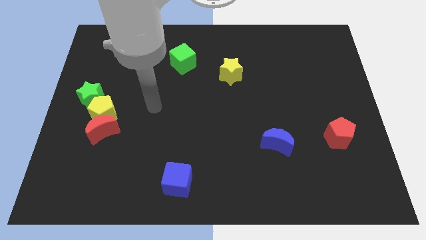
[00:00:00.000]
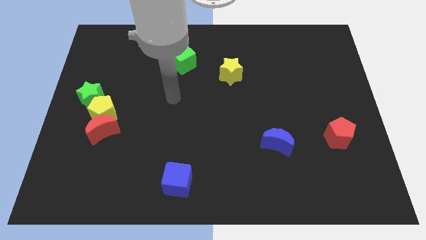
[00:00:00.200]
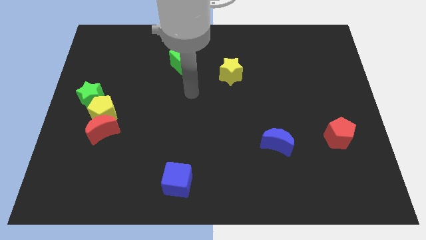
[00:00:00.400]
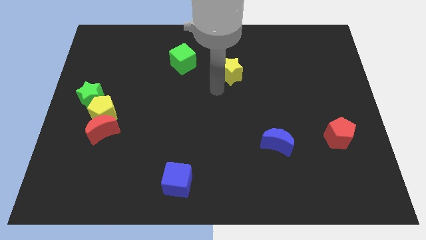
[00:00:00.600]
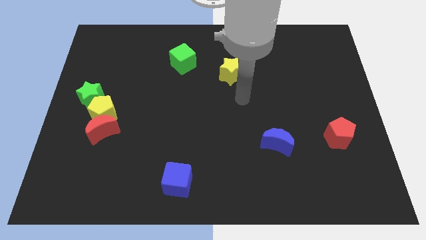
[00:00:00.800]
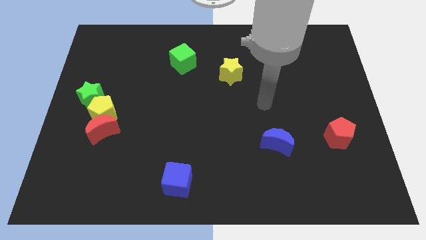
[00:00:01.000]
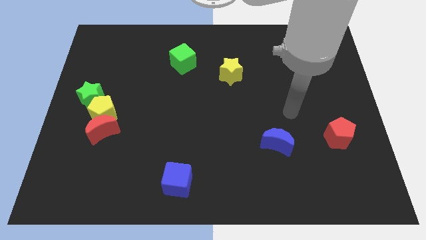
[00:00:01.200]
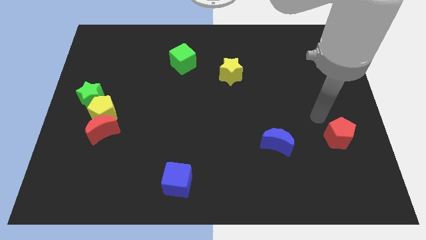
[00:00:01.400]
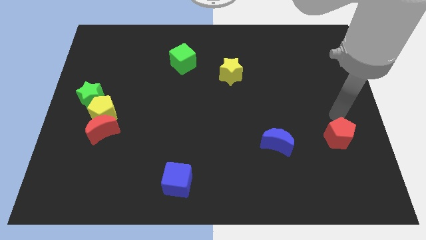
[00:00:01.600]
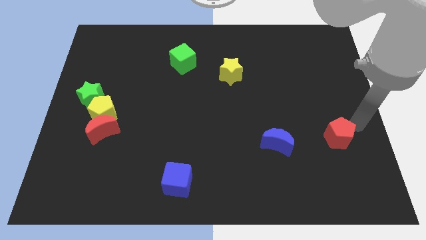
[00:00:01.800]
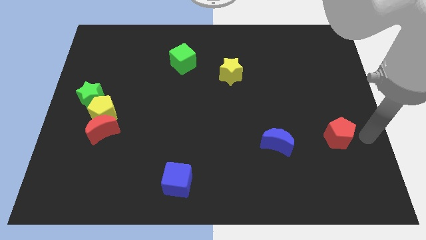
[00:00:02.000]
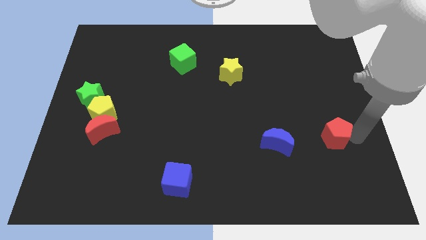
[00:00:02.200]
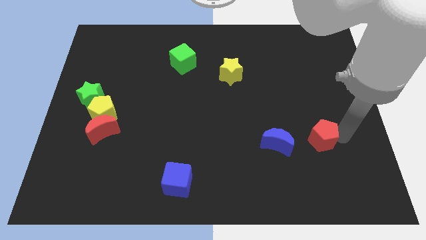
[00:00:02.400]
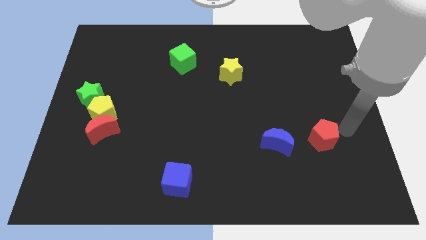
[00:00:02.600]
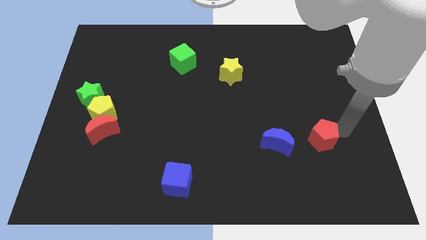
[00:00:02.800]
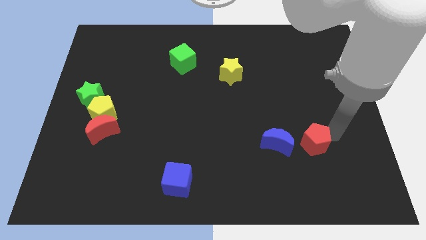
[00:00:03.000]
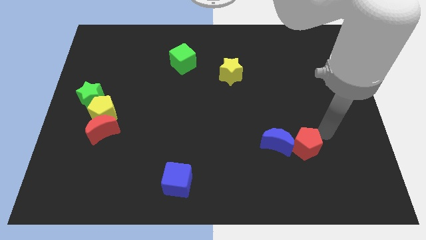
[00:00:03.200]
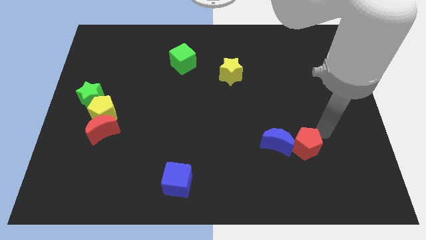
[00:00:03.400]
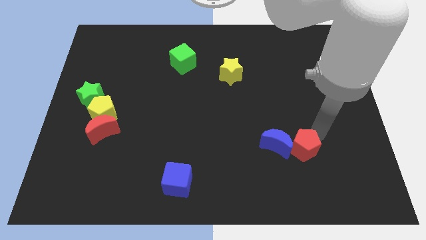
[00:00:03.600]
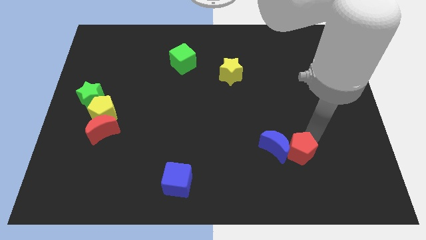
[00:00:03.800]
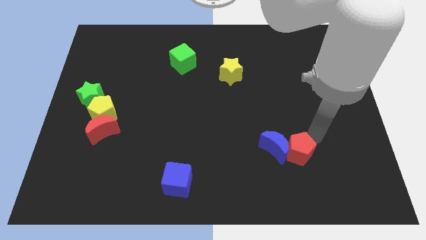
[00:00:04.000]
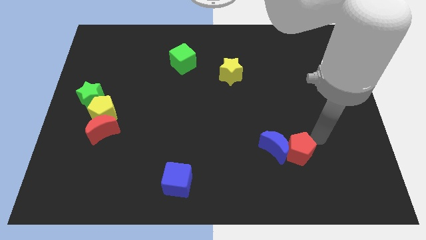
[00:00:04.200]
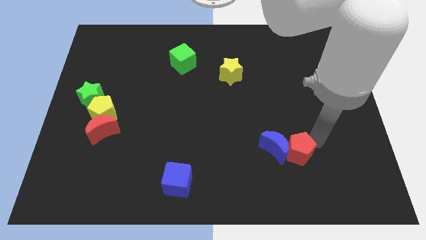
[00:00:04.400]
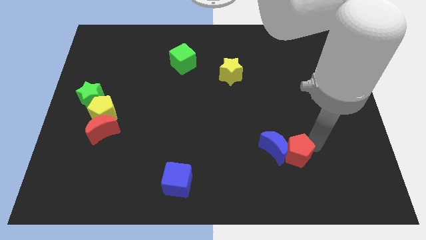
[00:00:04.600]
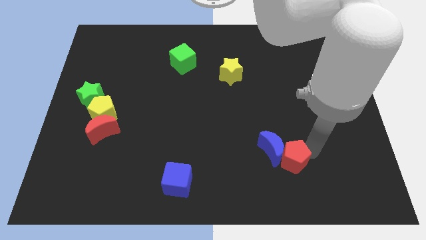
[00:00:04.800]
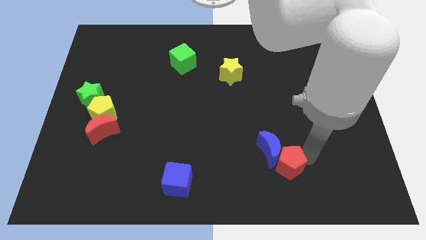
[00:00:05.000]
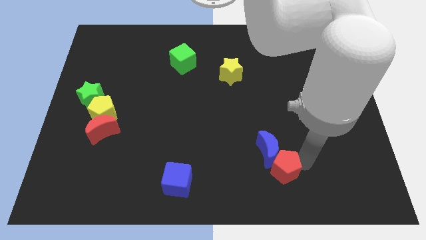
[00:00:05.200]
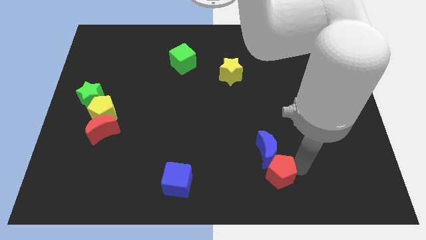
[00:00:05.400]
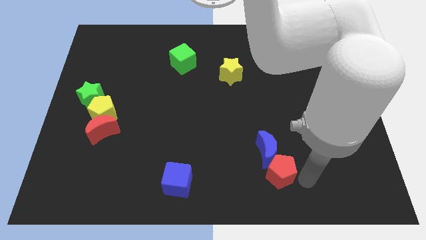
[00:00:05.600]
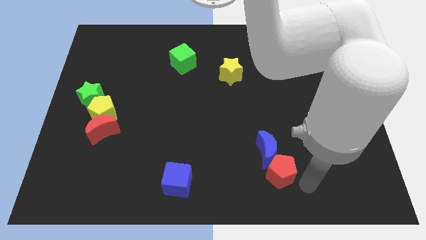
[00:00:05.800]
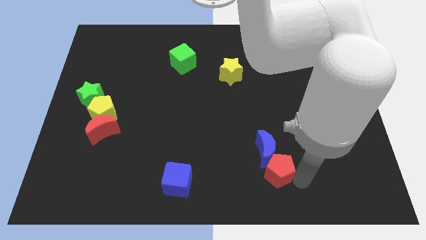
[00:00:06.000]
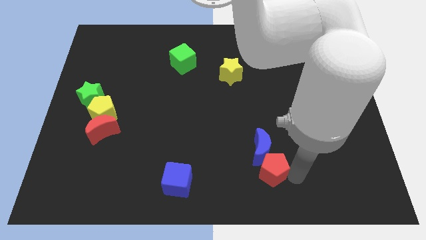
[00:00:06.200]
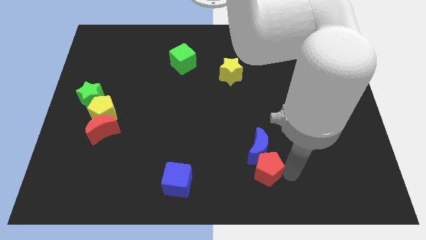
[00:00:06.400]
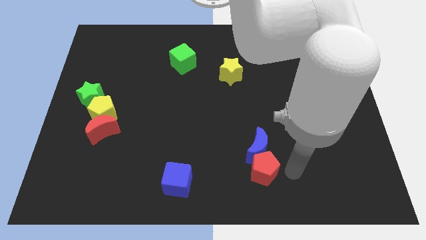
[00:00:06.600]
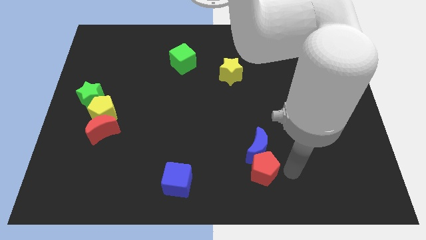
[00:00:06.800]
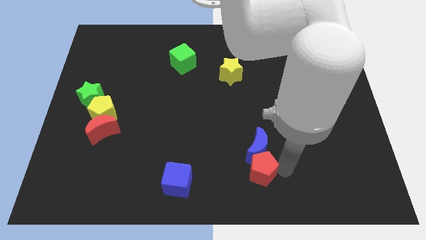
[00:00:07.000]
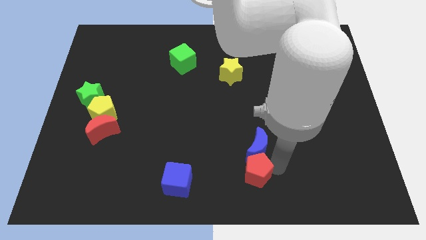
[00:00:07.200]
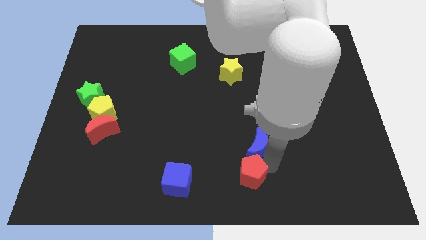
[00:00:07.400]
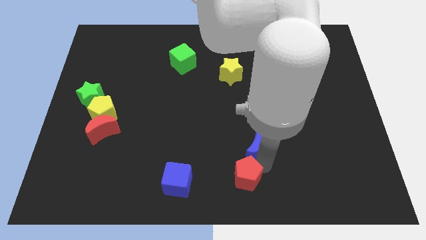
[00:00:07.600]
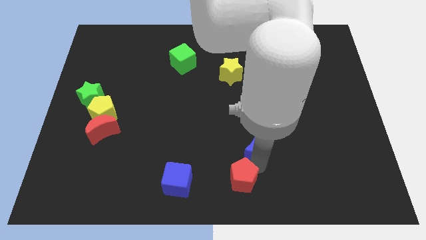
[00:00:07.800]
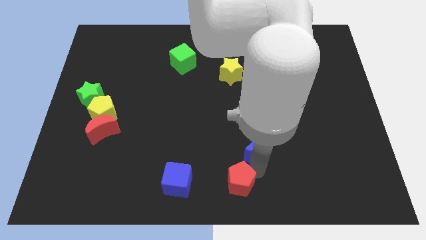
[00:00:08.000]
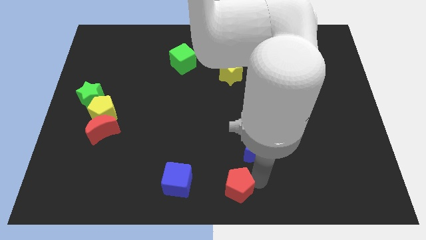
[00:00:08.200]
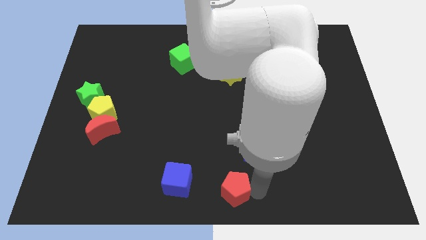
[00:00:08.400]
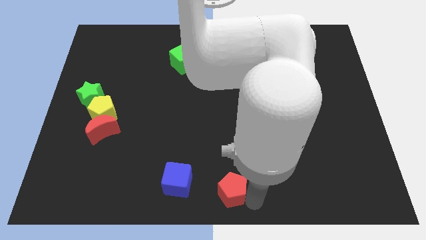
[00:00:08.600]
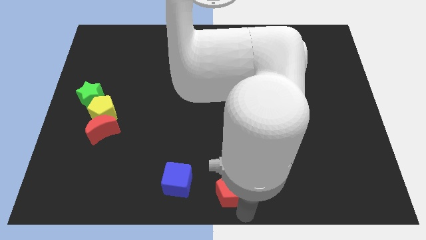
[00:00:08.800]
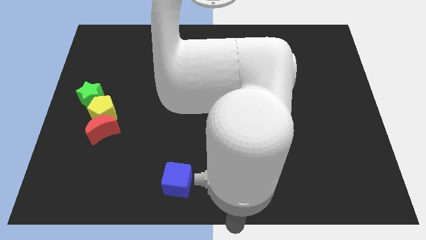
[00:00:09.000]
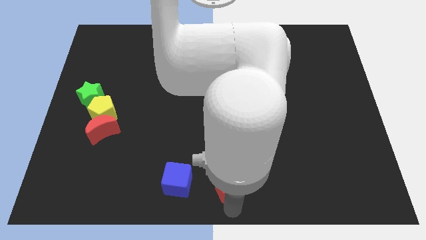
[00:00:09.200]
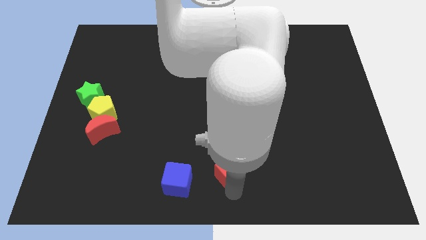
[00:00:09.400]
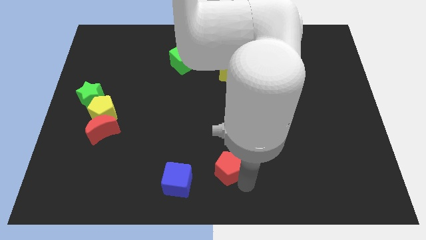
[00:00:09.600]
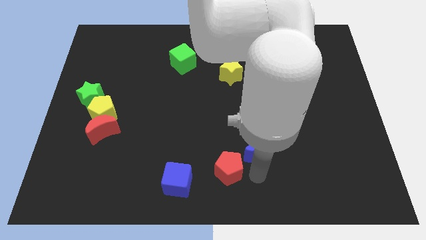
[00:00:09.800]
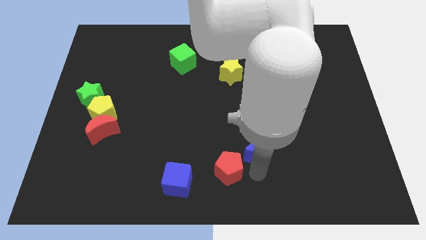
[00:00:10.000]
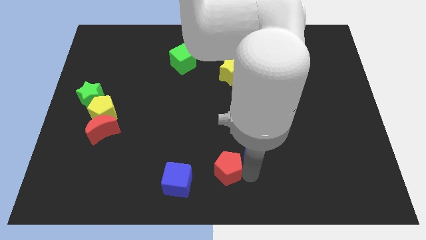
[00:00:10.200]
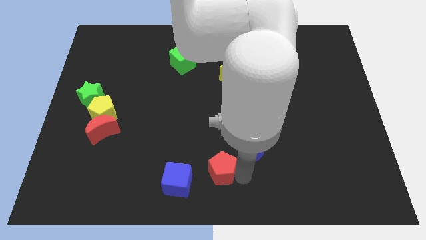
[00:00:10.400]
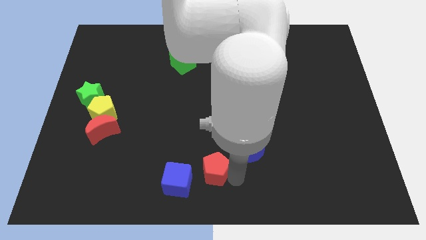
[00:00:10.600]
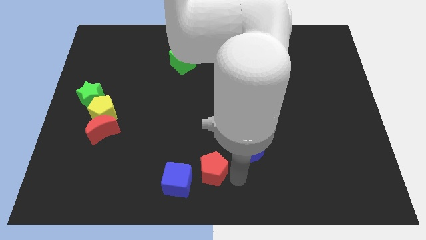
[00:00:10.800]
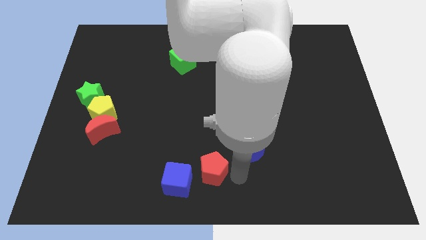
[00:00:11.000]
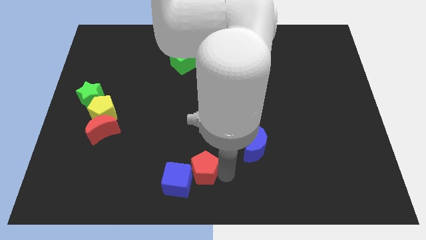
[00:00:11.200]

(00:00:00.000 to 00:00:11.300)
put the red pentagon to the blue cube

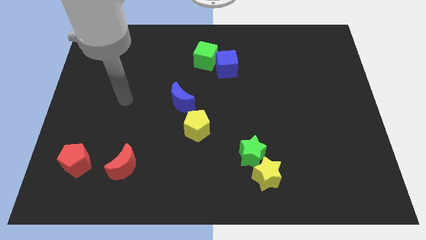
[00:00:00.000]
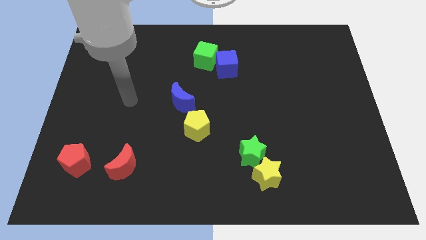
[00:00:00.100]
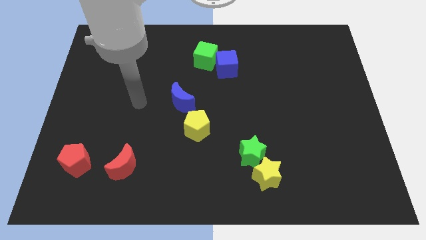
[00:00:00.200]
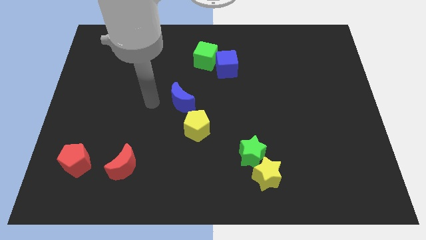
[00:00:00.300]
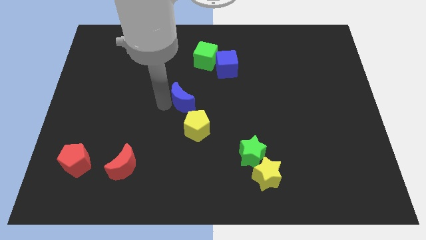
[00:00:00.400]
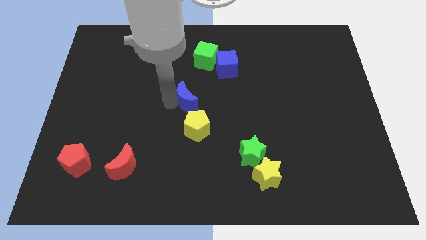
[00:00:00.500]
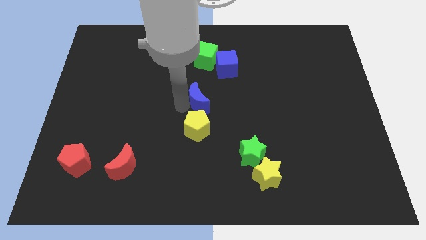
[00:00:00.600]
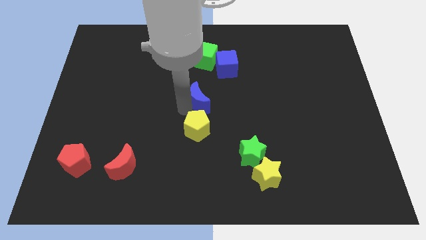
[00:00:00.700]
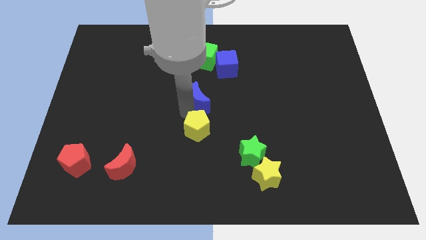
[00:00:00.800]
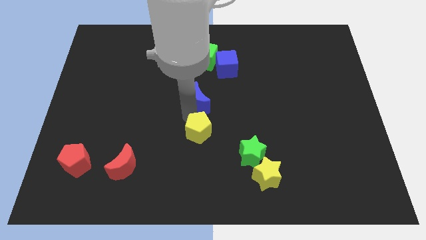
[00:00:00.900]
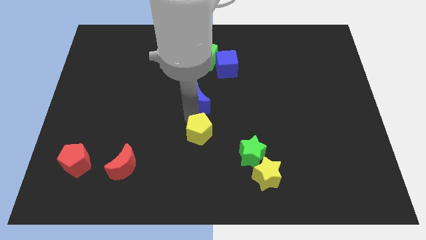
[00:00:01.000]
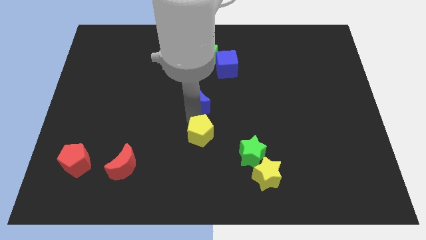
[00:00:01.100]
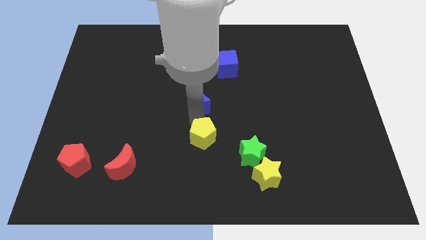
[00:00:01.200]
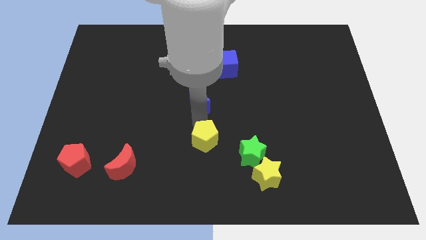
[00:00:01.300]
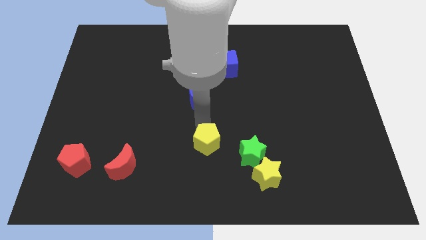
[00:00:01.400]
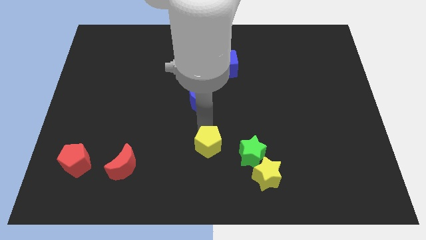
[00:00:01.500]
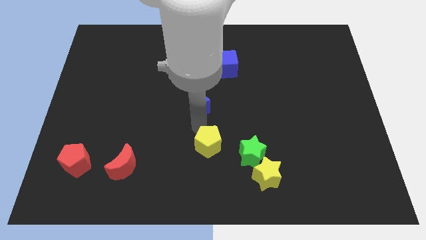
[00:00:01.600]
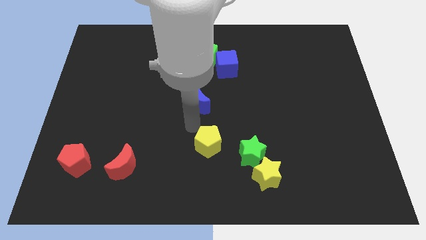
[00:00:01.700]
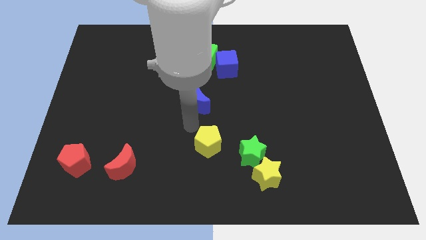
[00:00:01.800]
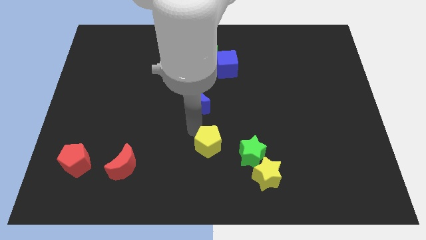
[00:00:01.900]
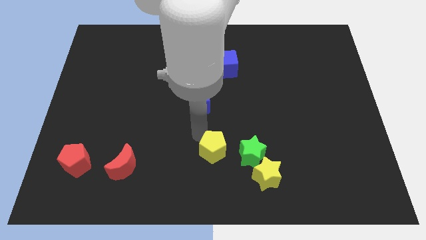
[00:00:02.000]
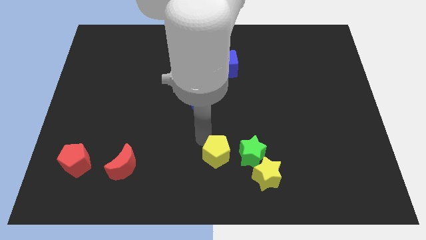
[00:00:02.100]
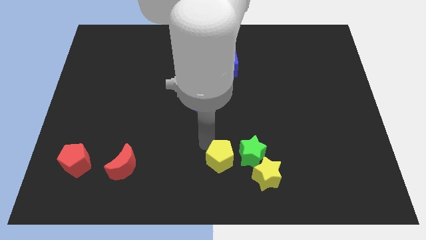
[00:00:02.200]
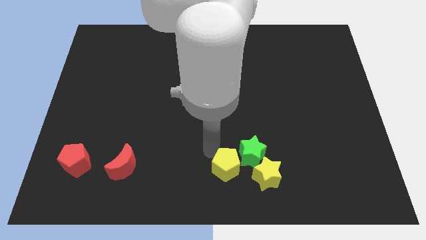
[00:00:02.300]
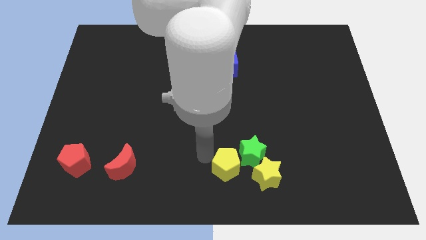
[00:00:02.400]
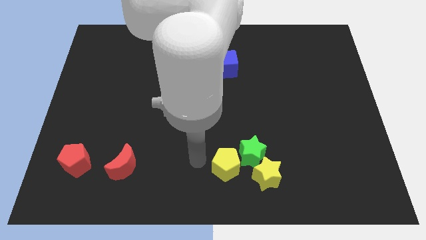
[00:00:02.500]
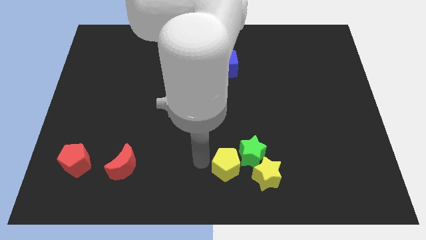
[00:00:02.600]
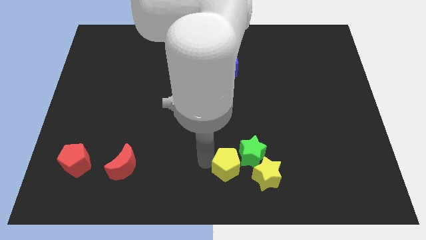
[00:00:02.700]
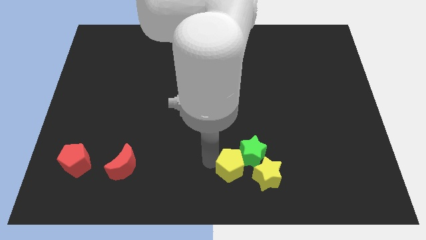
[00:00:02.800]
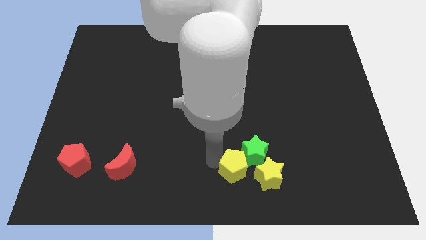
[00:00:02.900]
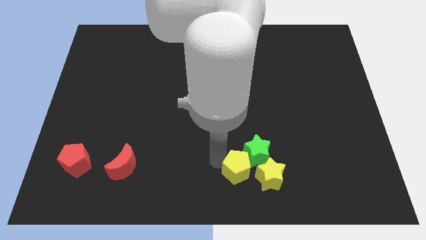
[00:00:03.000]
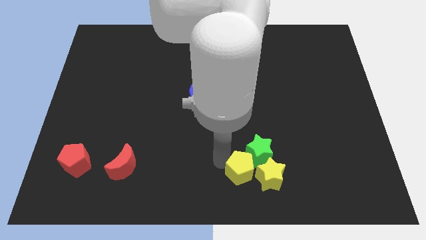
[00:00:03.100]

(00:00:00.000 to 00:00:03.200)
put the yellow pentagon close to the yellow star
